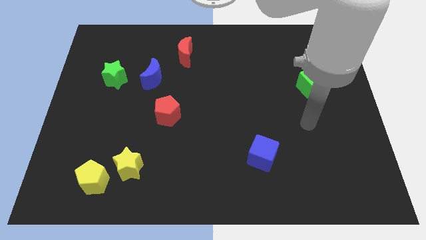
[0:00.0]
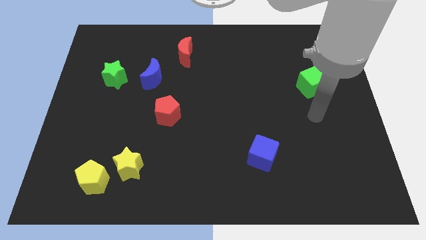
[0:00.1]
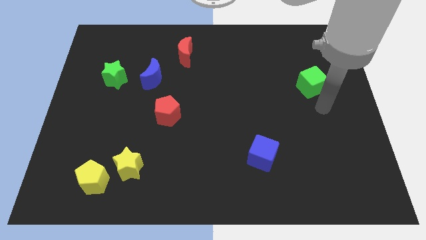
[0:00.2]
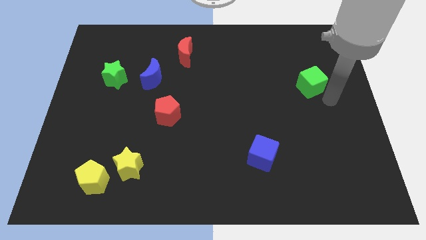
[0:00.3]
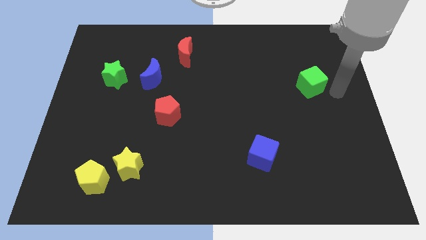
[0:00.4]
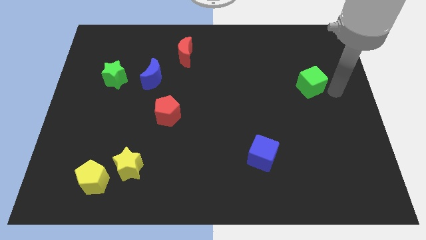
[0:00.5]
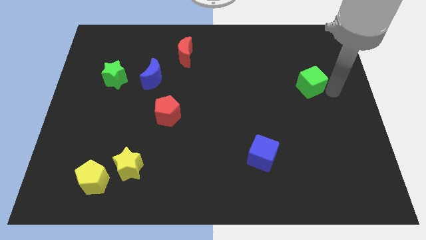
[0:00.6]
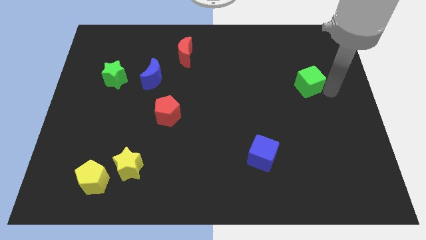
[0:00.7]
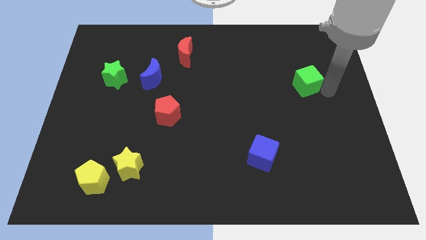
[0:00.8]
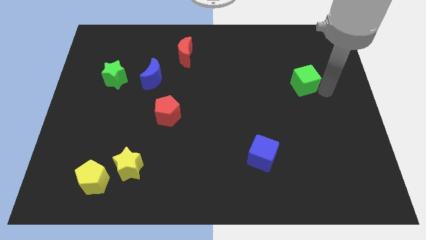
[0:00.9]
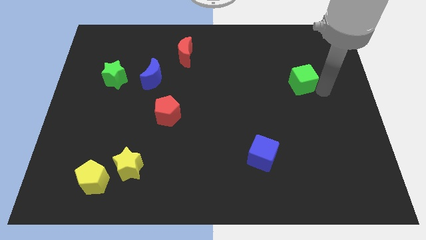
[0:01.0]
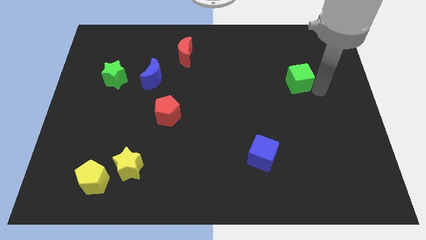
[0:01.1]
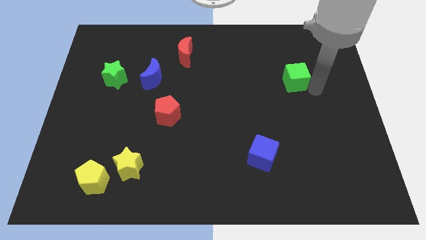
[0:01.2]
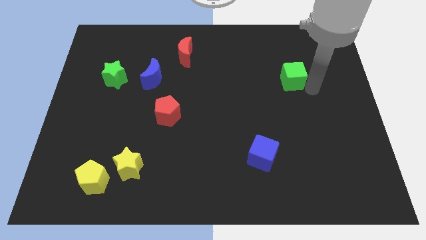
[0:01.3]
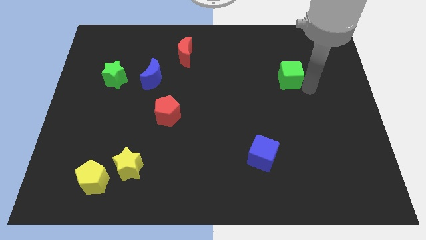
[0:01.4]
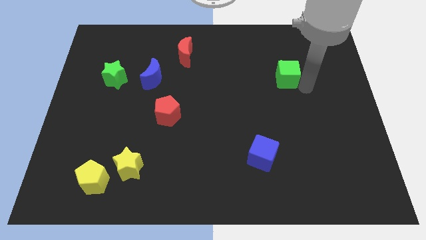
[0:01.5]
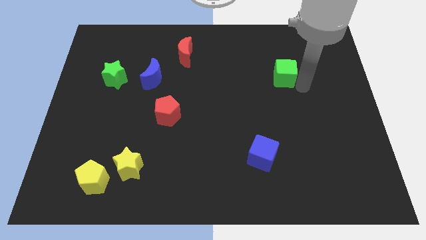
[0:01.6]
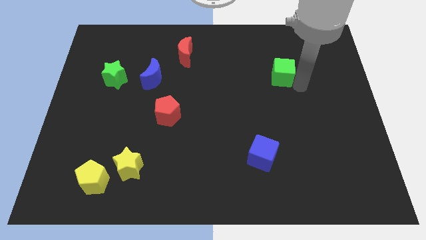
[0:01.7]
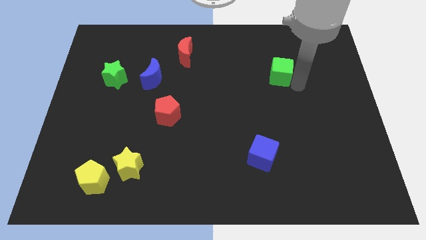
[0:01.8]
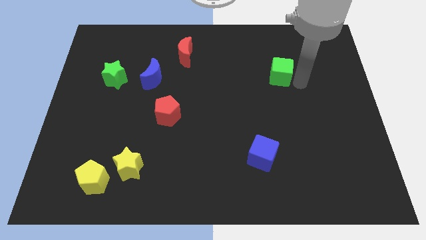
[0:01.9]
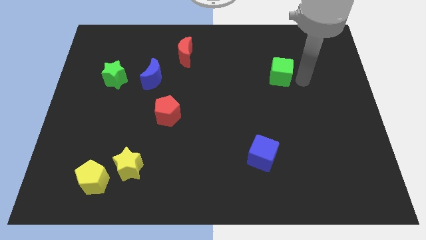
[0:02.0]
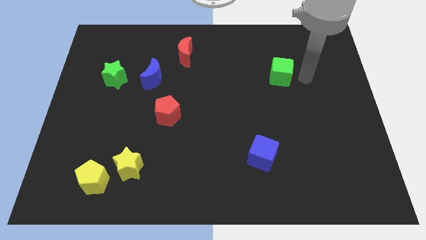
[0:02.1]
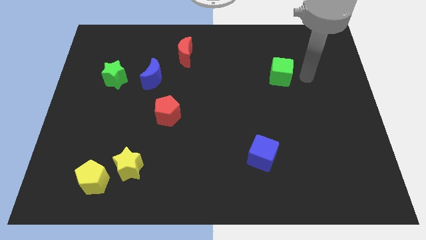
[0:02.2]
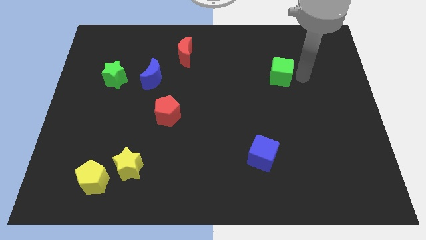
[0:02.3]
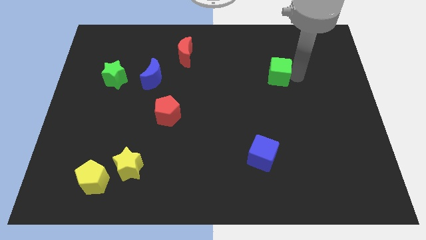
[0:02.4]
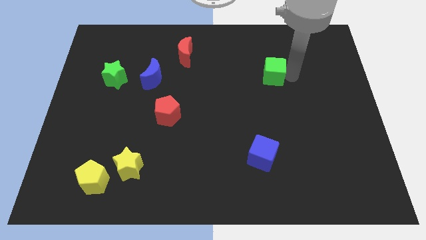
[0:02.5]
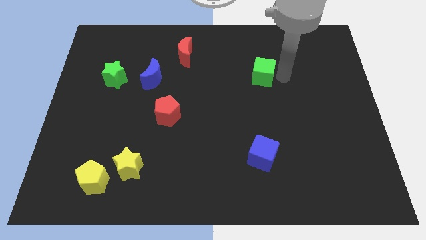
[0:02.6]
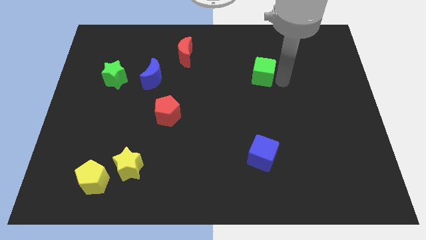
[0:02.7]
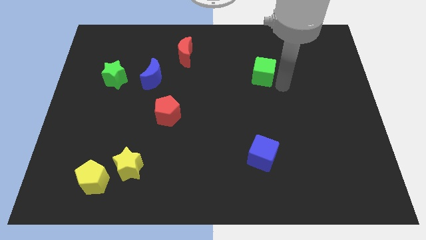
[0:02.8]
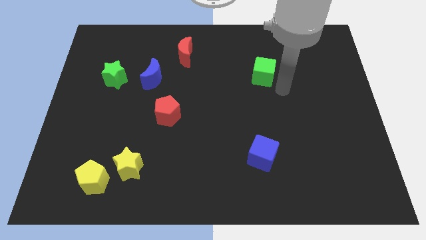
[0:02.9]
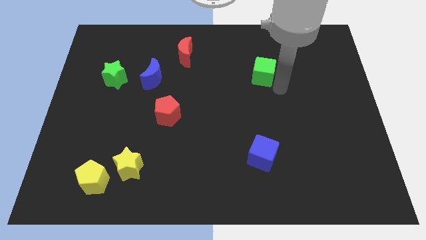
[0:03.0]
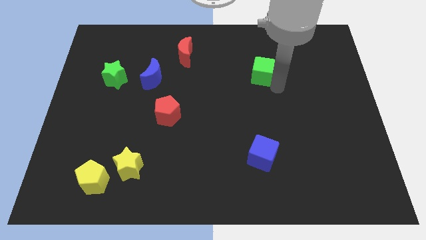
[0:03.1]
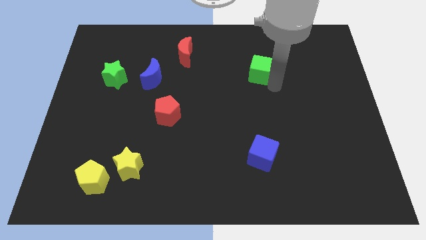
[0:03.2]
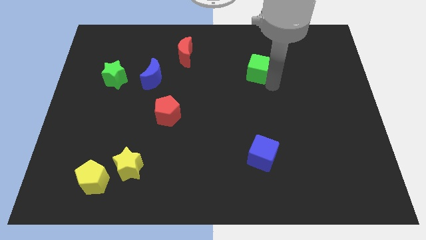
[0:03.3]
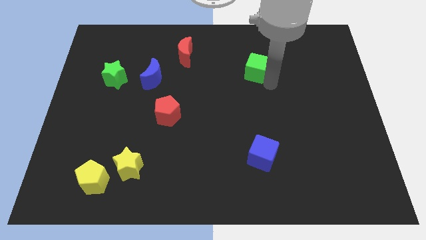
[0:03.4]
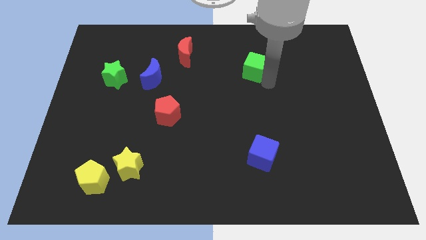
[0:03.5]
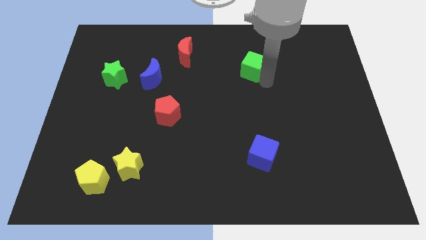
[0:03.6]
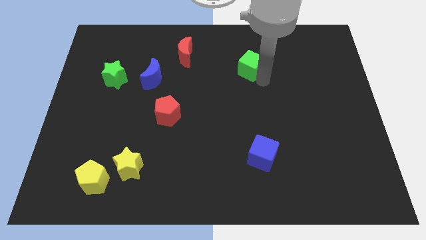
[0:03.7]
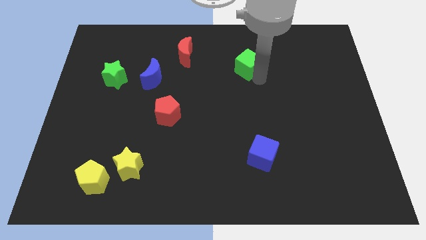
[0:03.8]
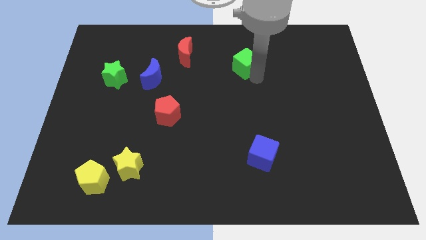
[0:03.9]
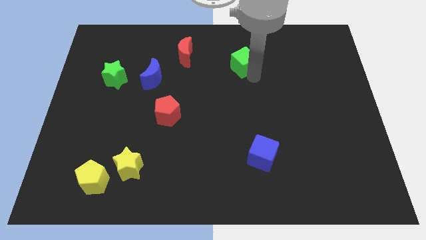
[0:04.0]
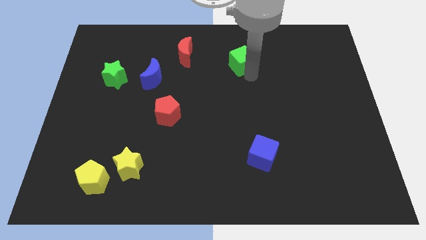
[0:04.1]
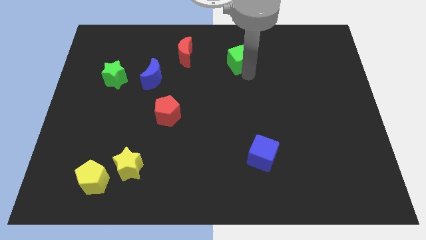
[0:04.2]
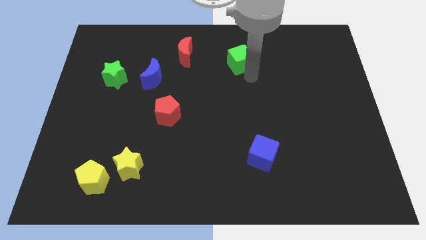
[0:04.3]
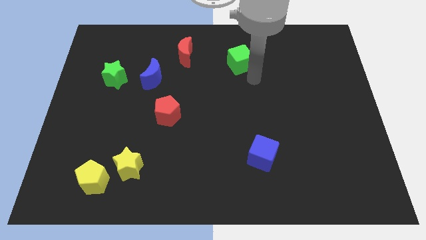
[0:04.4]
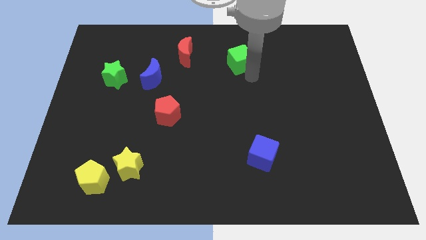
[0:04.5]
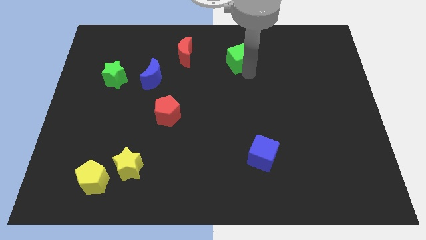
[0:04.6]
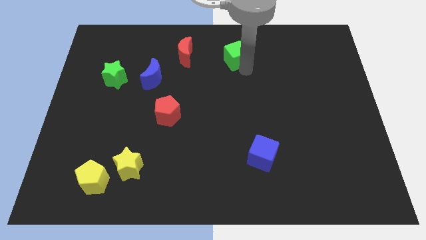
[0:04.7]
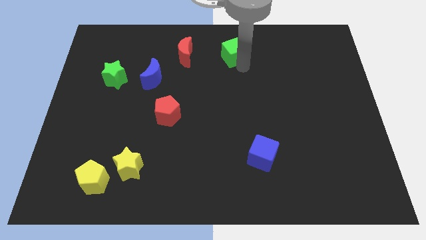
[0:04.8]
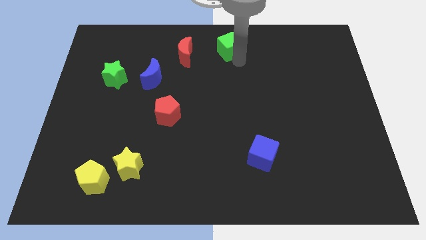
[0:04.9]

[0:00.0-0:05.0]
move the green cube to the top side

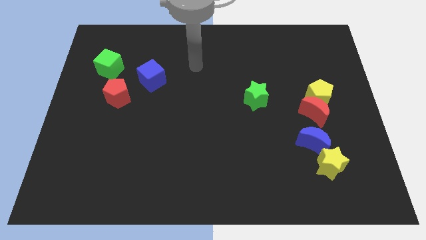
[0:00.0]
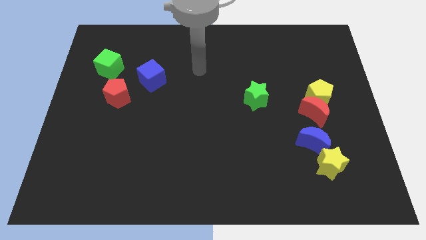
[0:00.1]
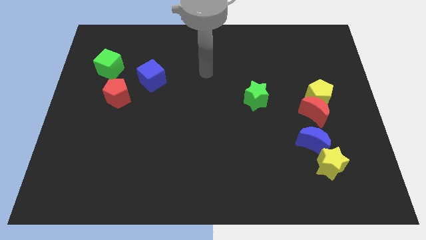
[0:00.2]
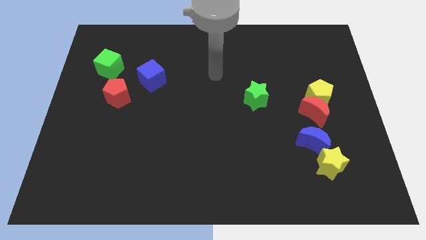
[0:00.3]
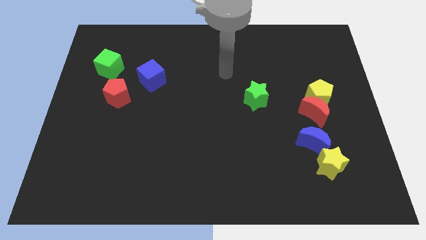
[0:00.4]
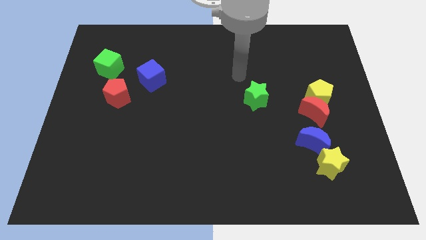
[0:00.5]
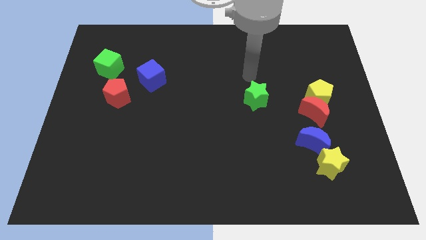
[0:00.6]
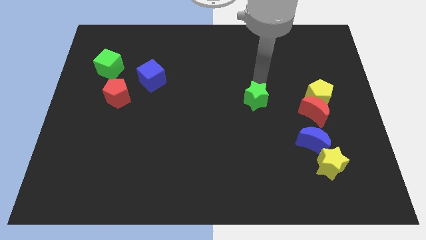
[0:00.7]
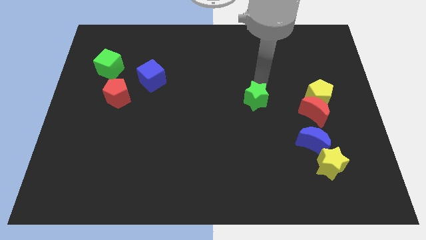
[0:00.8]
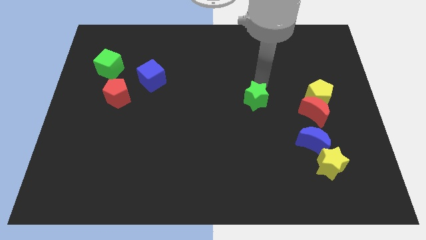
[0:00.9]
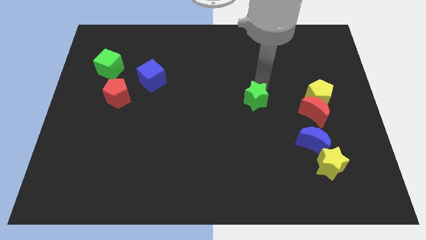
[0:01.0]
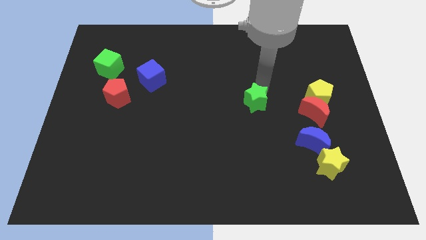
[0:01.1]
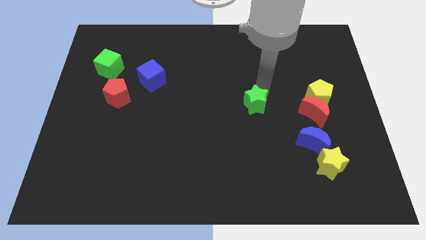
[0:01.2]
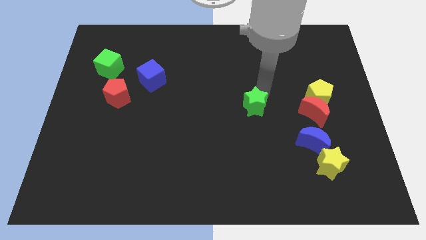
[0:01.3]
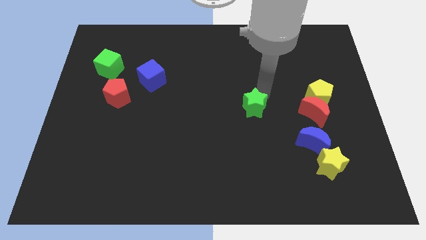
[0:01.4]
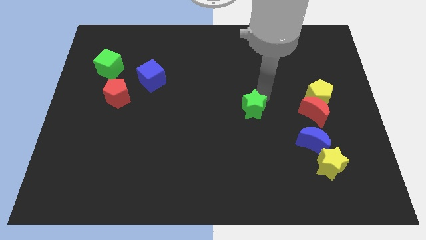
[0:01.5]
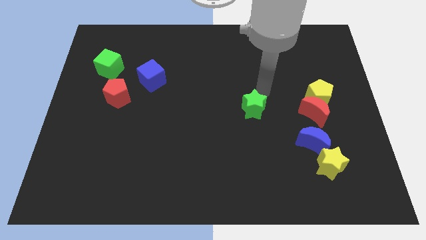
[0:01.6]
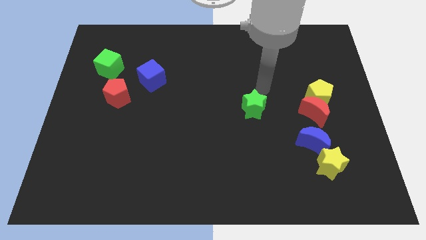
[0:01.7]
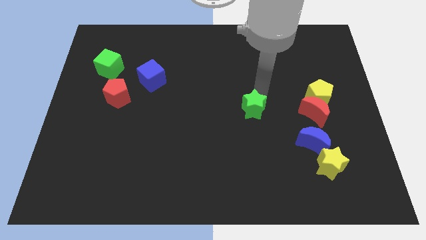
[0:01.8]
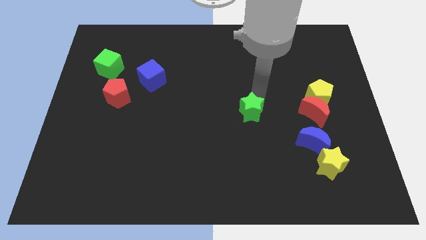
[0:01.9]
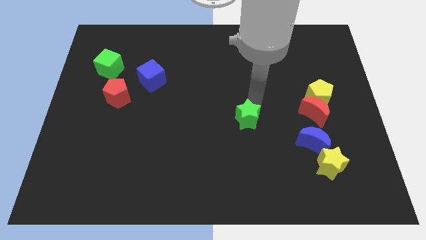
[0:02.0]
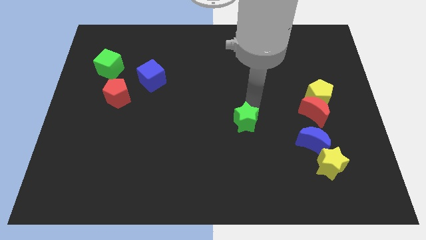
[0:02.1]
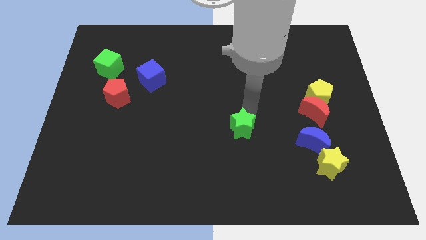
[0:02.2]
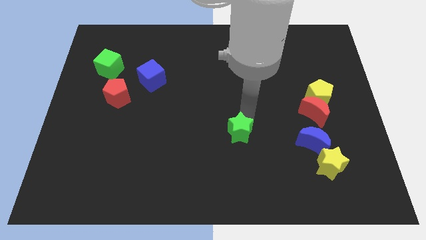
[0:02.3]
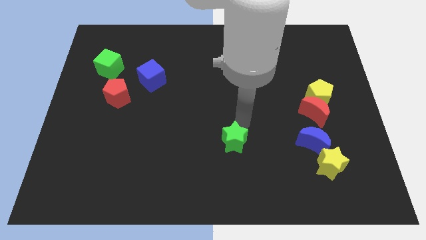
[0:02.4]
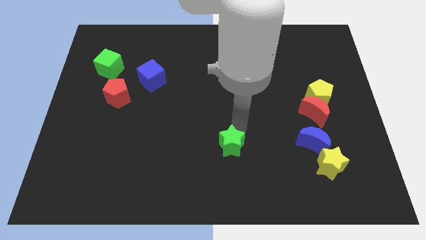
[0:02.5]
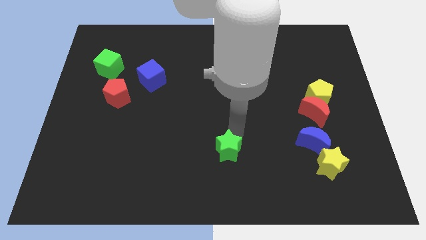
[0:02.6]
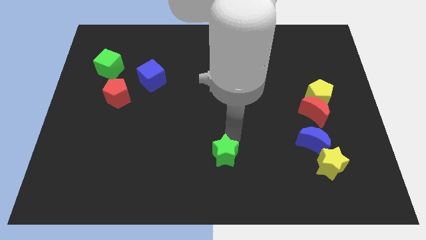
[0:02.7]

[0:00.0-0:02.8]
put the green star to the bottom side
